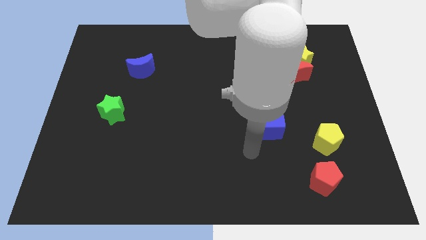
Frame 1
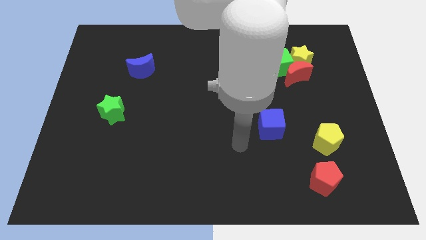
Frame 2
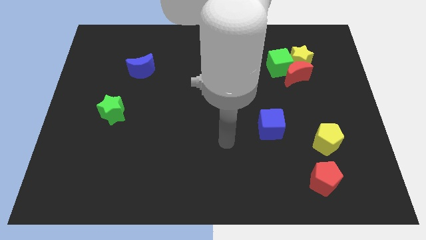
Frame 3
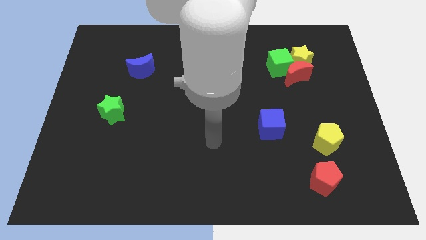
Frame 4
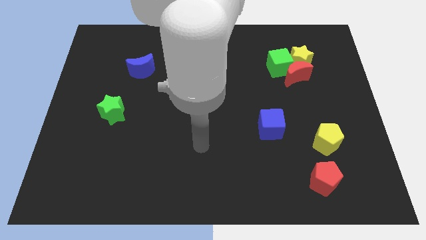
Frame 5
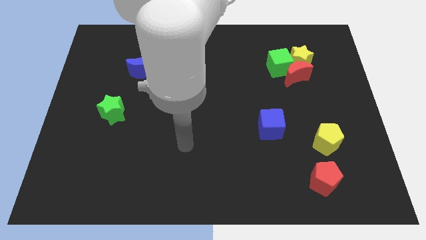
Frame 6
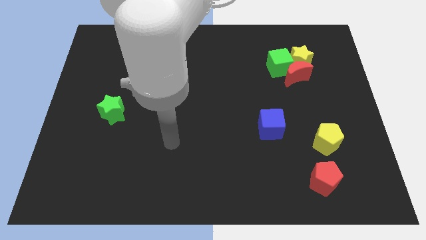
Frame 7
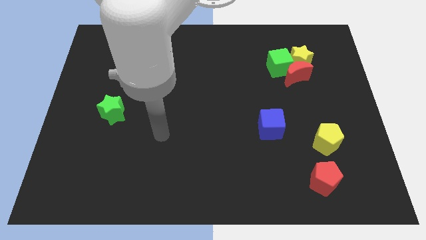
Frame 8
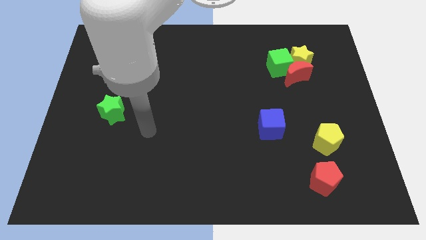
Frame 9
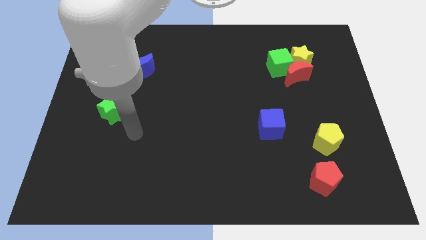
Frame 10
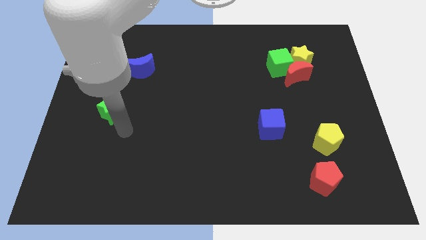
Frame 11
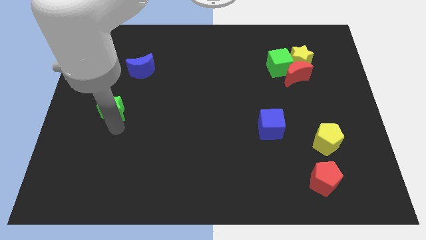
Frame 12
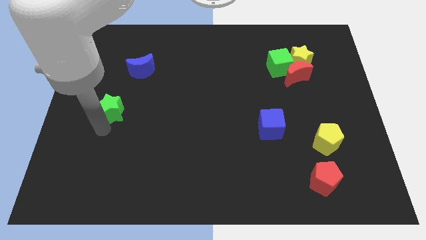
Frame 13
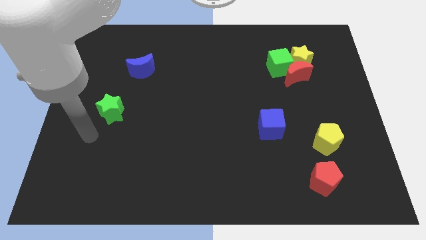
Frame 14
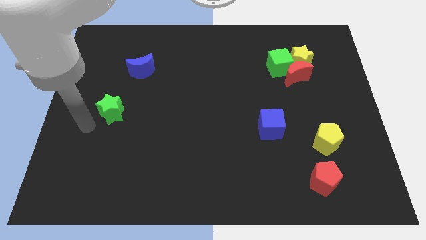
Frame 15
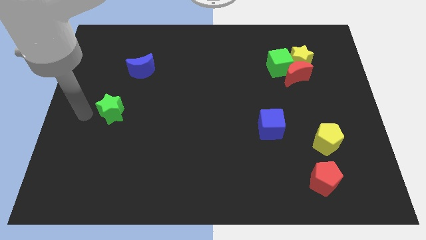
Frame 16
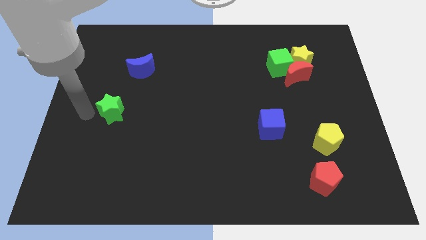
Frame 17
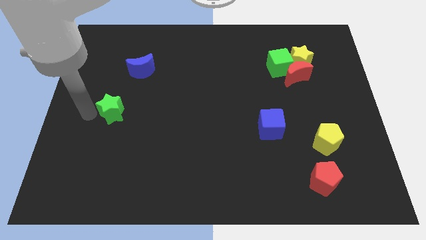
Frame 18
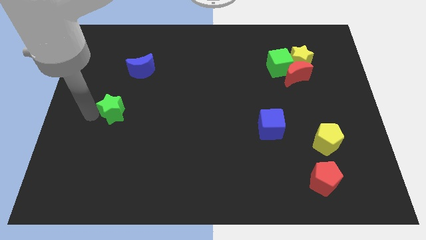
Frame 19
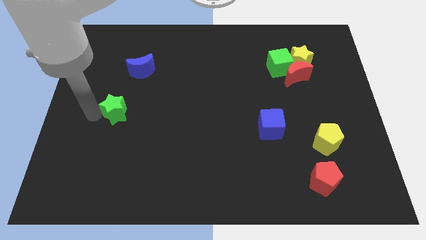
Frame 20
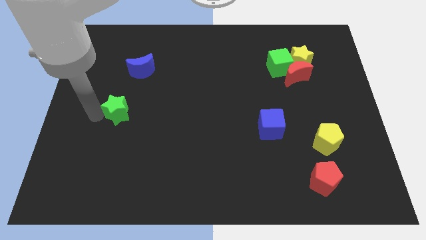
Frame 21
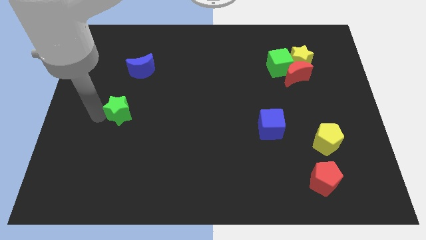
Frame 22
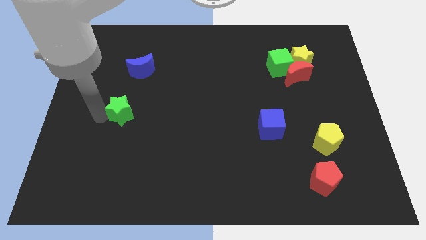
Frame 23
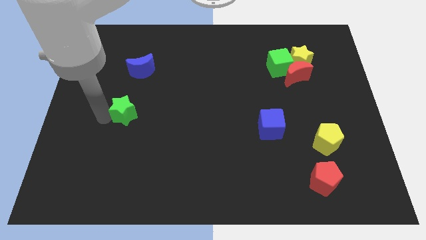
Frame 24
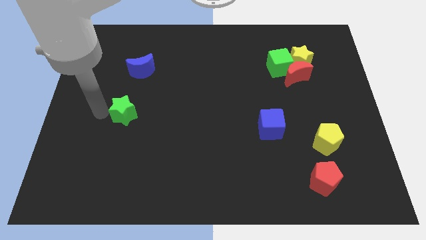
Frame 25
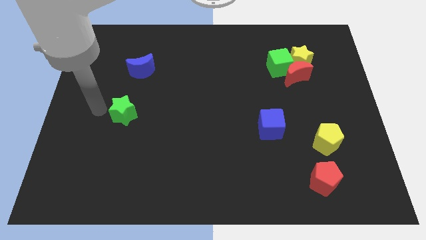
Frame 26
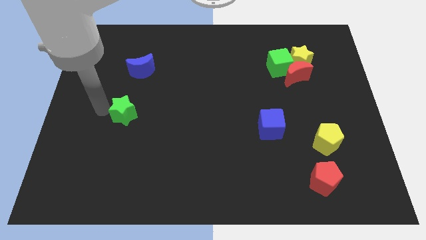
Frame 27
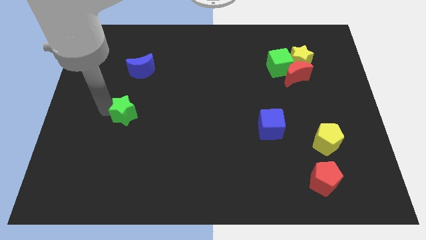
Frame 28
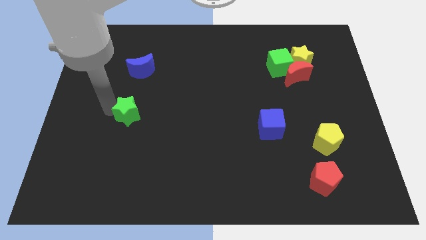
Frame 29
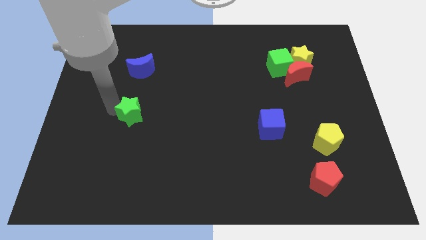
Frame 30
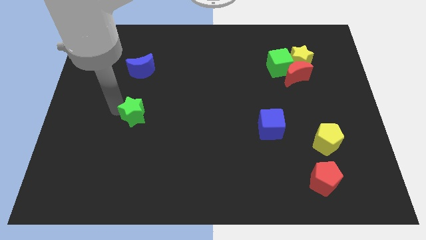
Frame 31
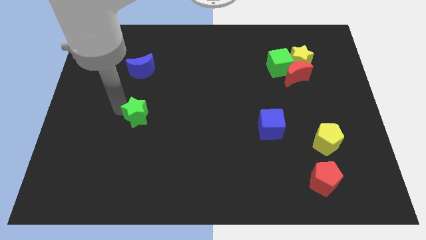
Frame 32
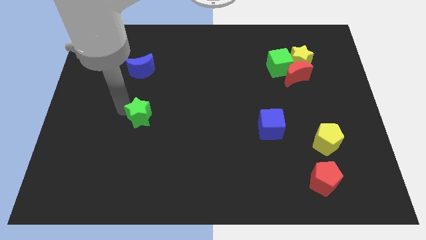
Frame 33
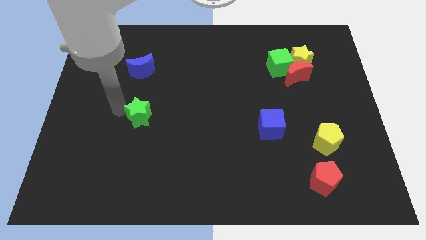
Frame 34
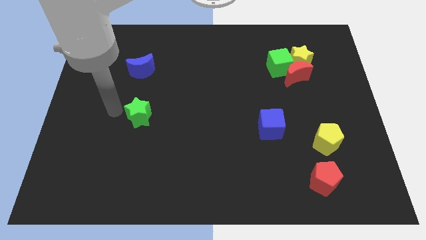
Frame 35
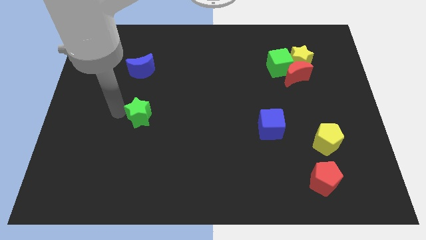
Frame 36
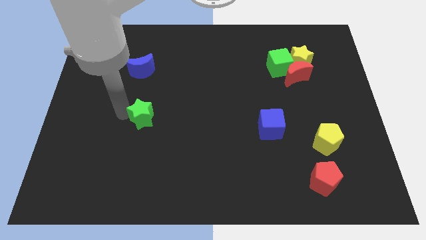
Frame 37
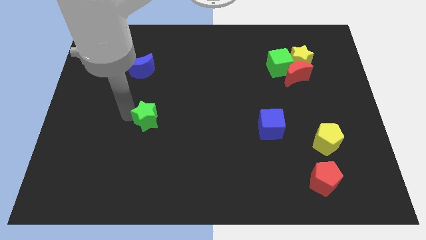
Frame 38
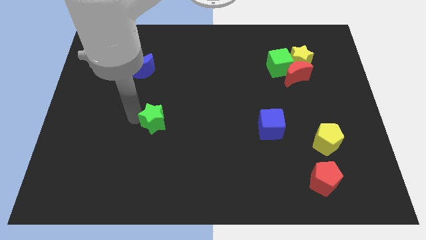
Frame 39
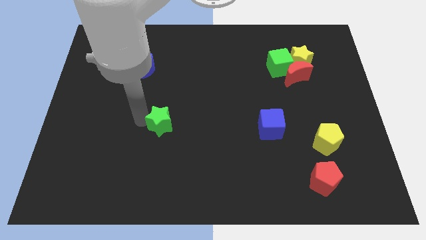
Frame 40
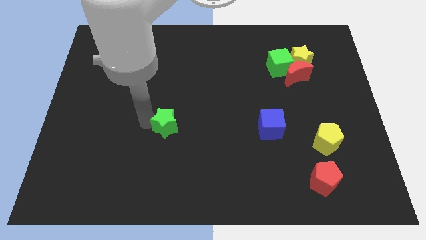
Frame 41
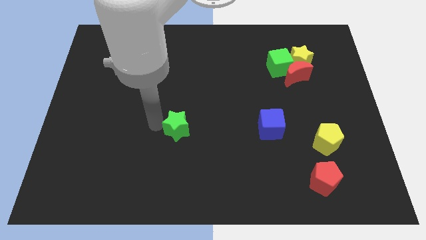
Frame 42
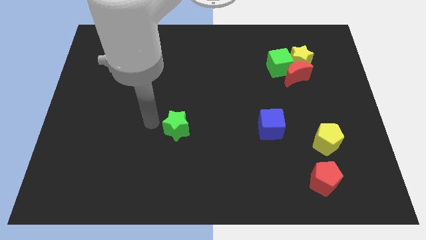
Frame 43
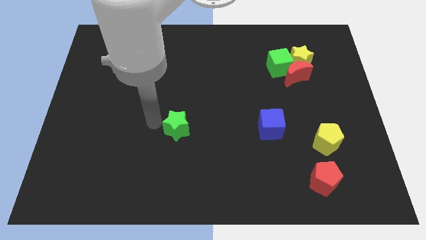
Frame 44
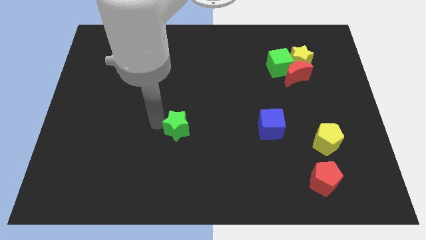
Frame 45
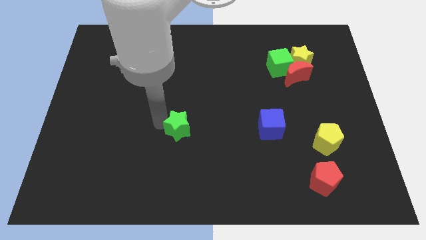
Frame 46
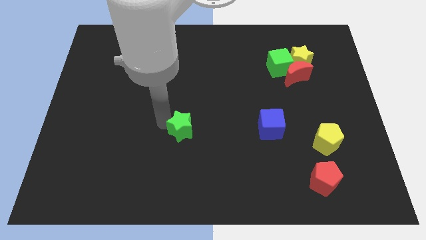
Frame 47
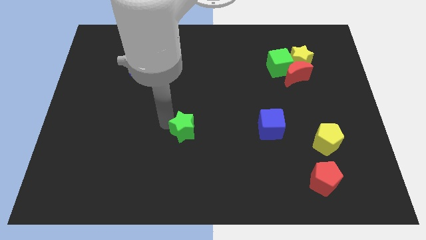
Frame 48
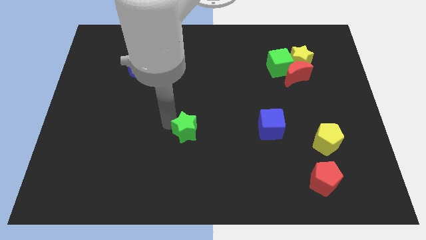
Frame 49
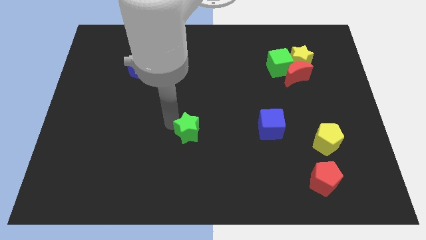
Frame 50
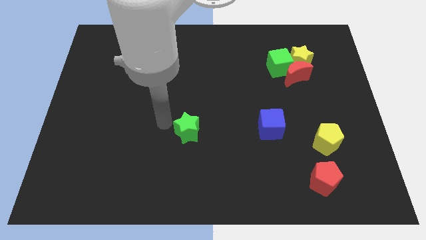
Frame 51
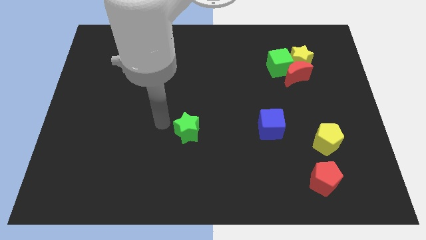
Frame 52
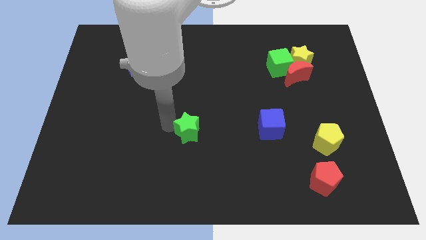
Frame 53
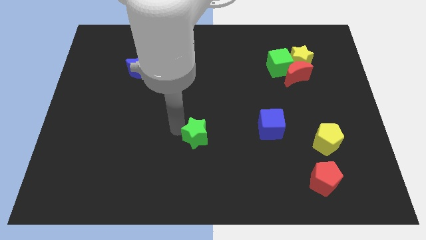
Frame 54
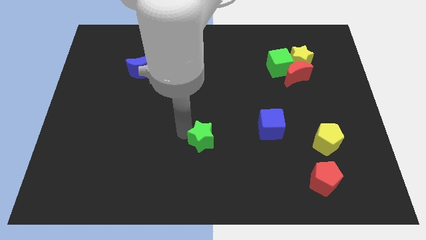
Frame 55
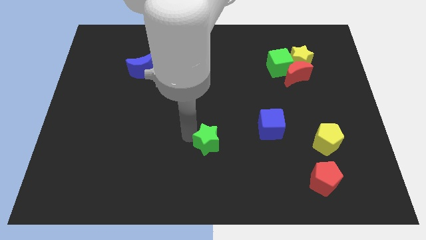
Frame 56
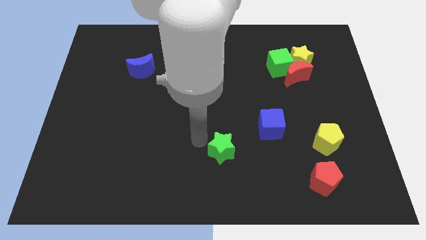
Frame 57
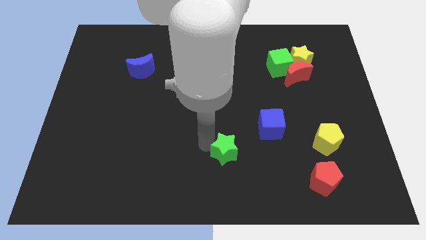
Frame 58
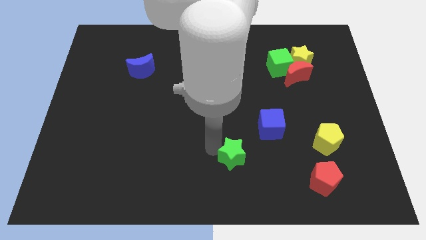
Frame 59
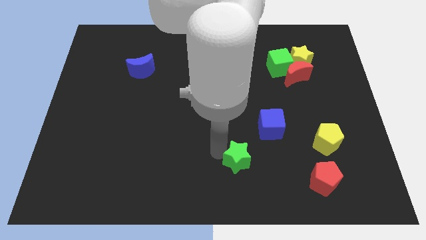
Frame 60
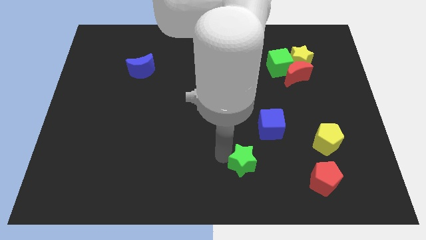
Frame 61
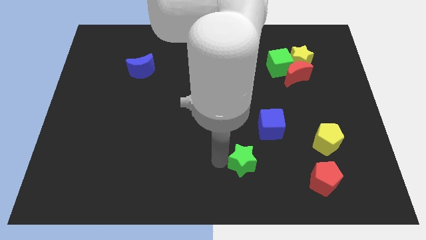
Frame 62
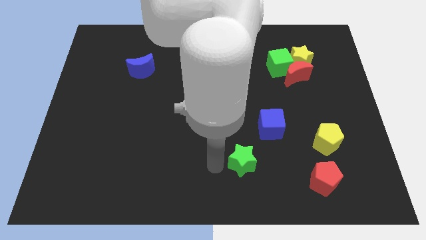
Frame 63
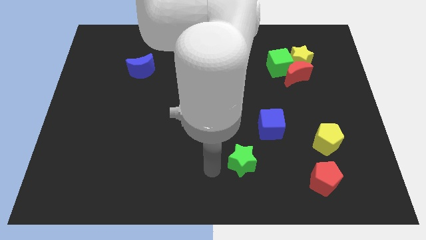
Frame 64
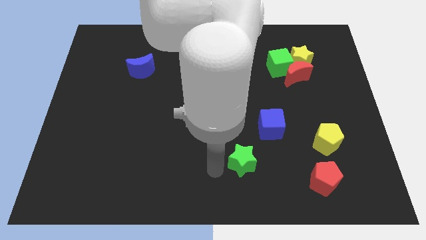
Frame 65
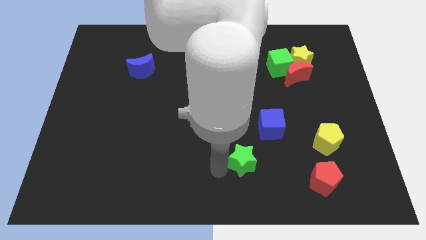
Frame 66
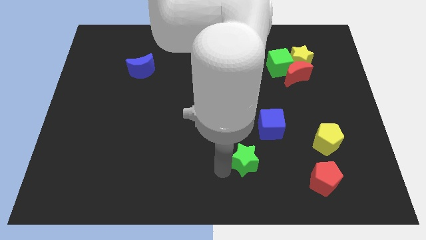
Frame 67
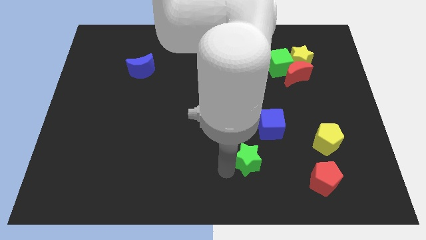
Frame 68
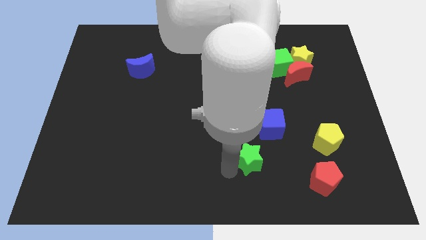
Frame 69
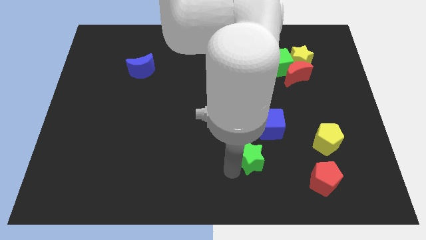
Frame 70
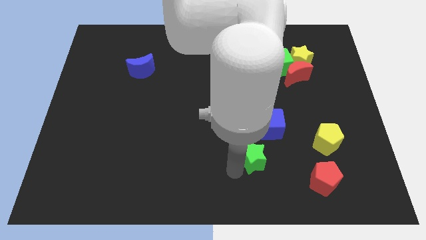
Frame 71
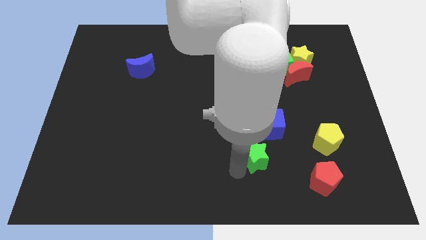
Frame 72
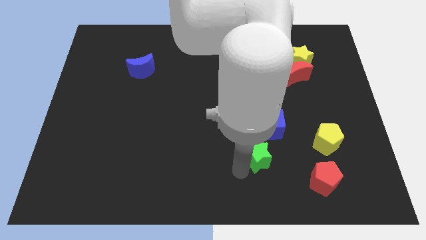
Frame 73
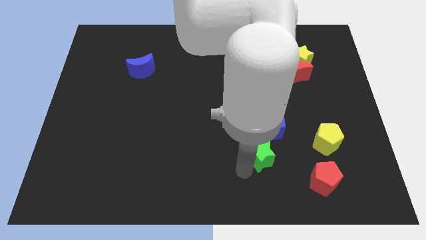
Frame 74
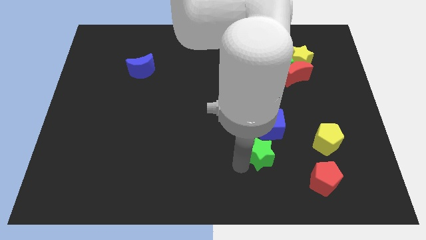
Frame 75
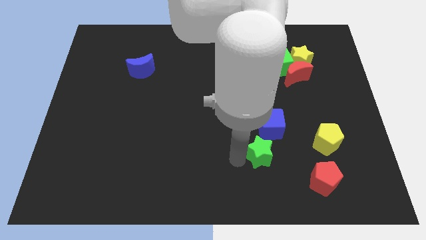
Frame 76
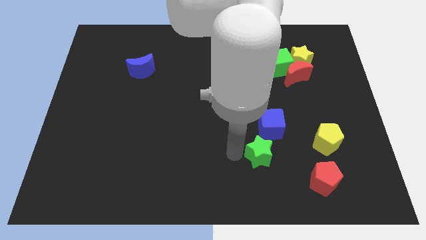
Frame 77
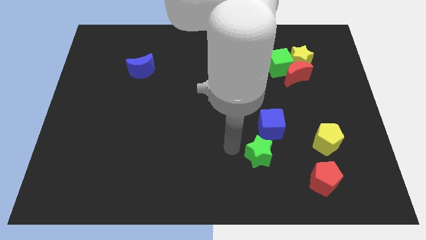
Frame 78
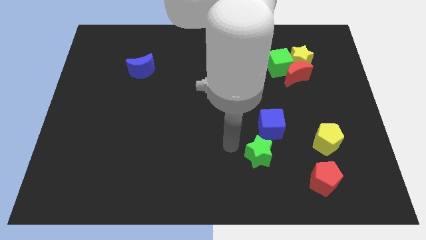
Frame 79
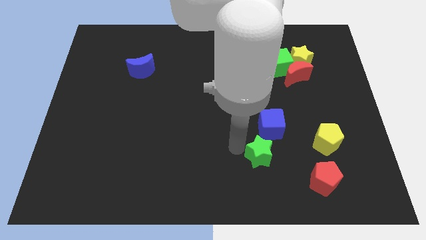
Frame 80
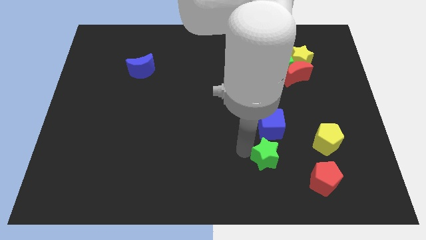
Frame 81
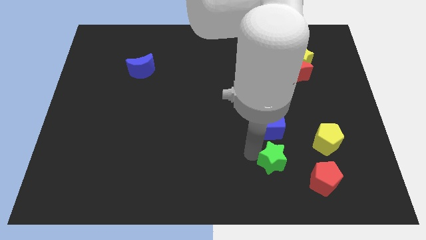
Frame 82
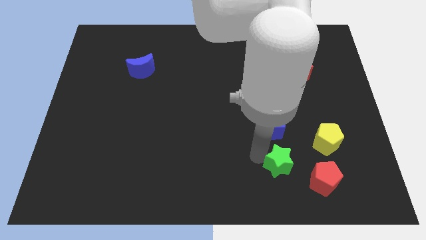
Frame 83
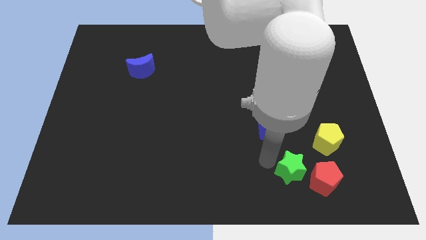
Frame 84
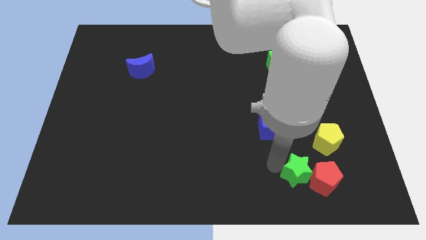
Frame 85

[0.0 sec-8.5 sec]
push the green star towards the red pentagon
